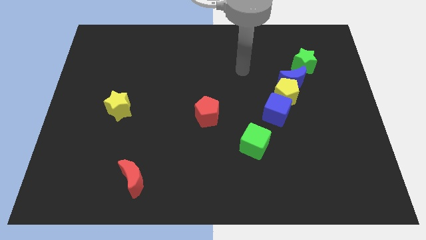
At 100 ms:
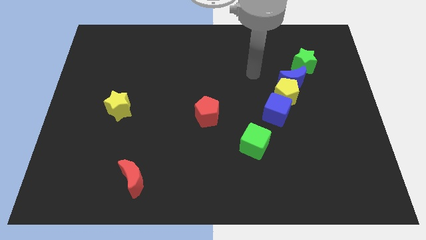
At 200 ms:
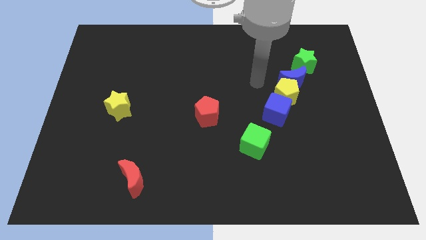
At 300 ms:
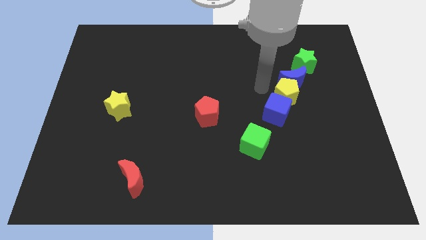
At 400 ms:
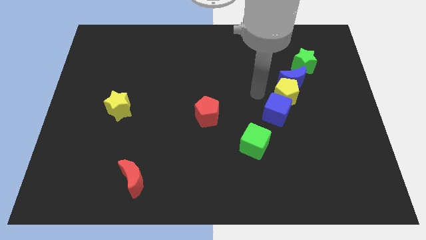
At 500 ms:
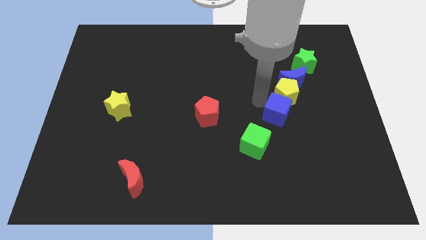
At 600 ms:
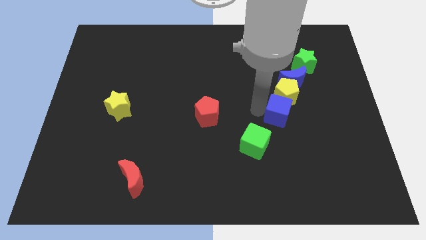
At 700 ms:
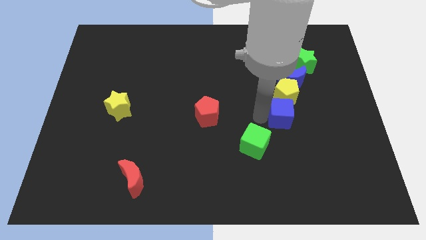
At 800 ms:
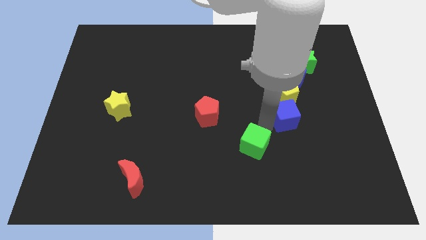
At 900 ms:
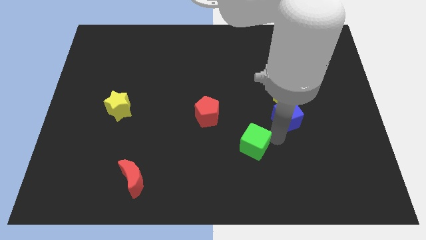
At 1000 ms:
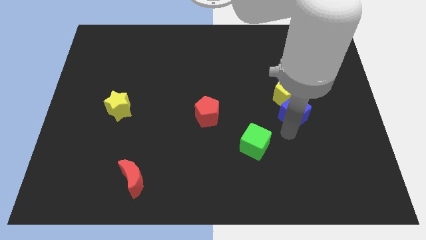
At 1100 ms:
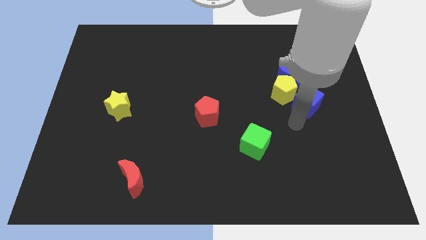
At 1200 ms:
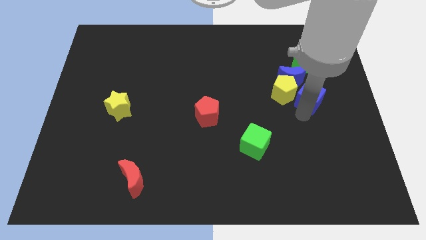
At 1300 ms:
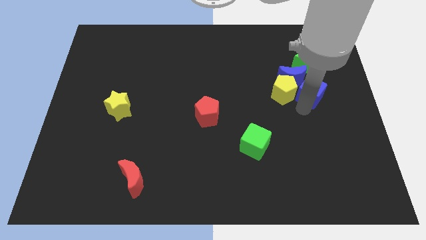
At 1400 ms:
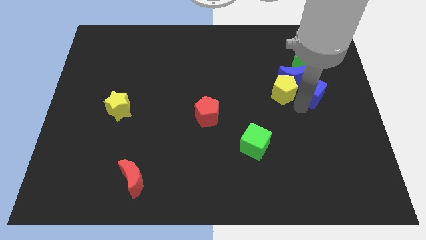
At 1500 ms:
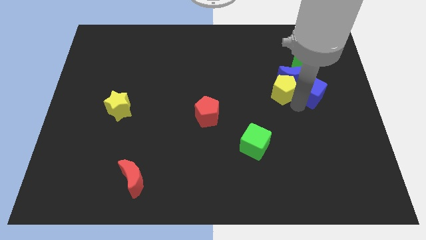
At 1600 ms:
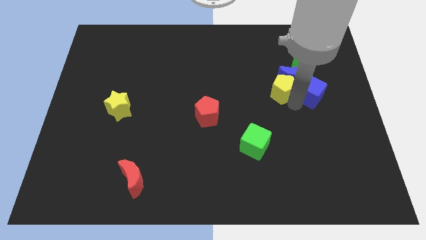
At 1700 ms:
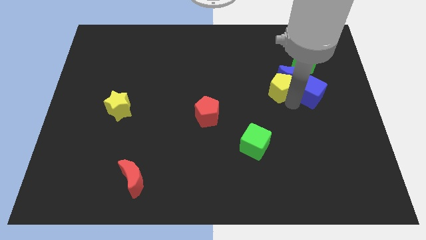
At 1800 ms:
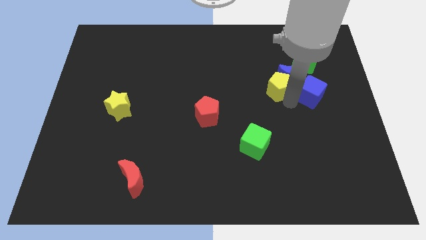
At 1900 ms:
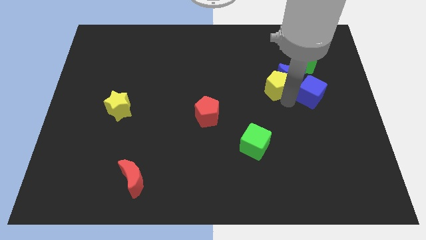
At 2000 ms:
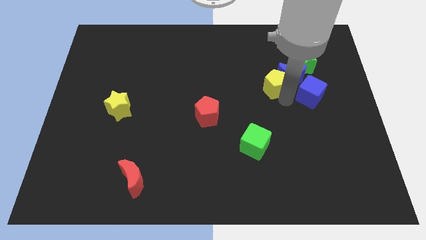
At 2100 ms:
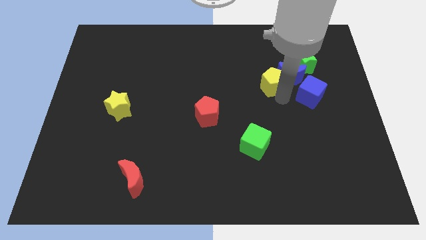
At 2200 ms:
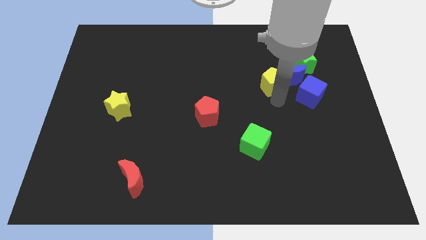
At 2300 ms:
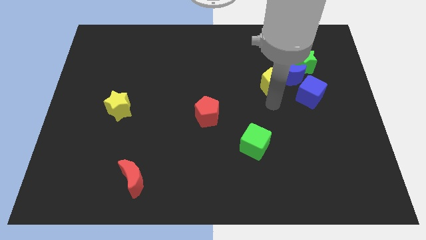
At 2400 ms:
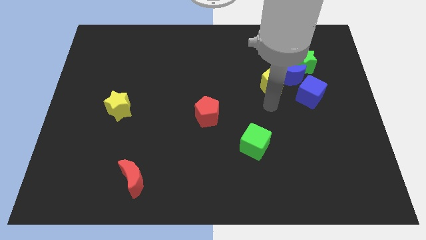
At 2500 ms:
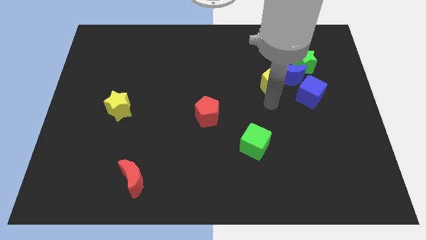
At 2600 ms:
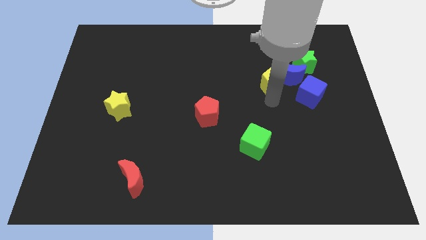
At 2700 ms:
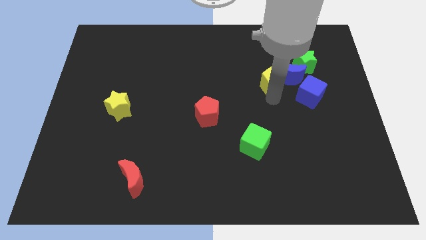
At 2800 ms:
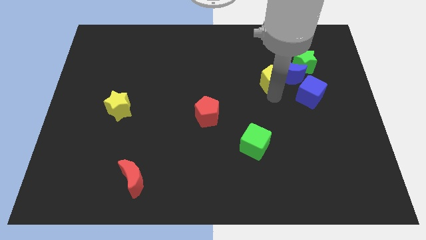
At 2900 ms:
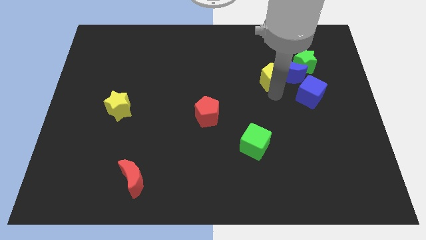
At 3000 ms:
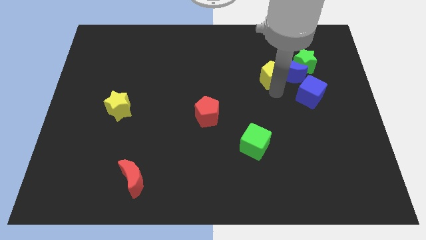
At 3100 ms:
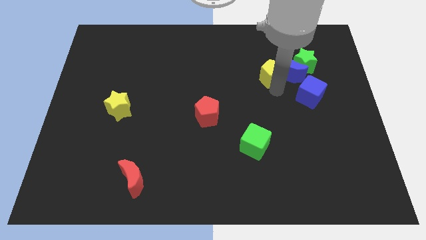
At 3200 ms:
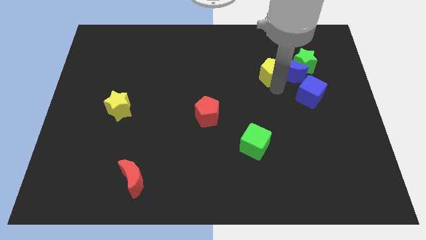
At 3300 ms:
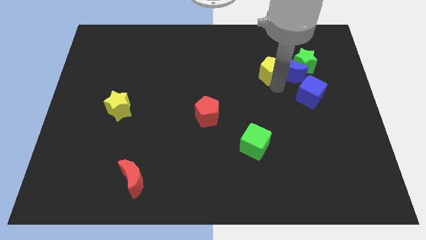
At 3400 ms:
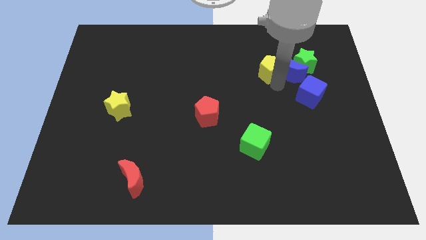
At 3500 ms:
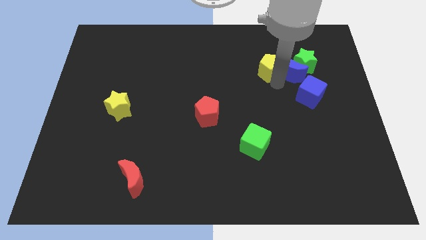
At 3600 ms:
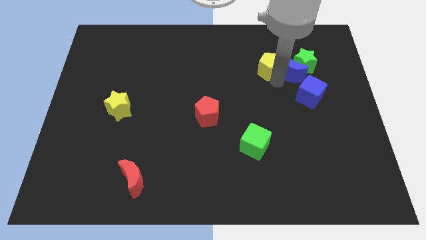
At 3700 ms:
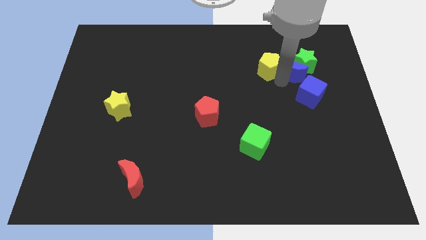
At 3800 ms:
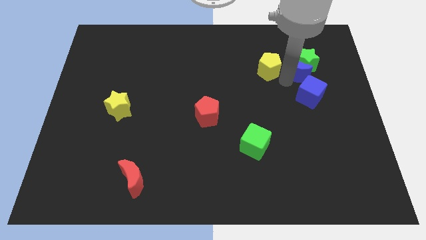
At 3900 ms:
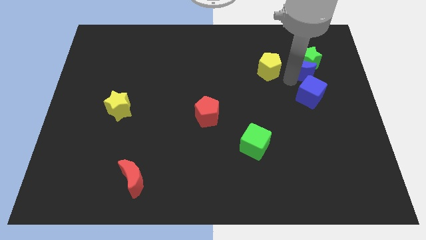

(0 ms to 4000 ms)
move the yellow pentagon away from the blue moon and blue cube

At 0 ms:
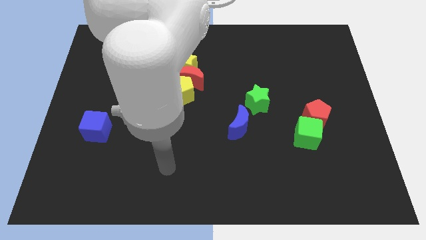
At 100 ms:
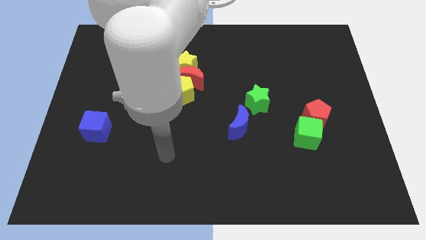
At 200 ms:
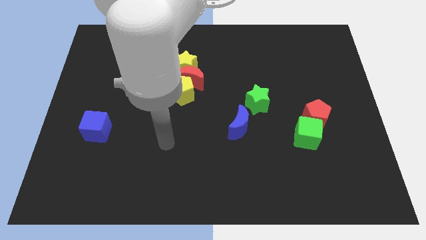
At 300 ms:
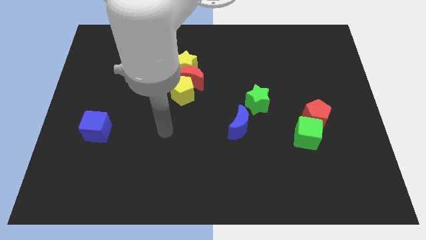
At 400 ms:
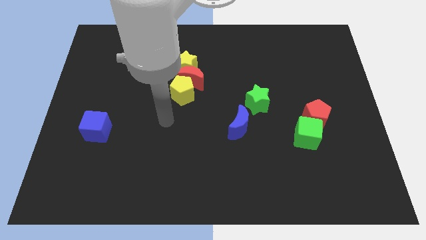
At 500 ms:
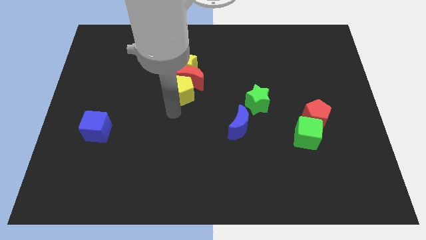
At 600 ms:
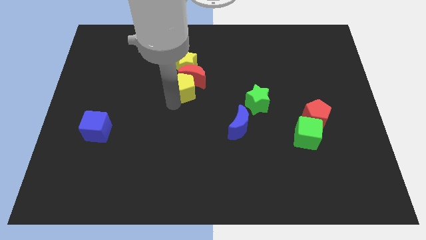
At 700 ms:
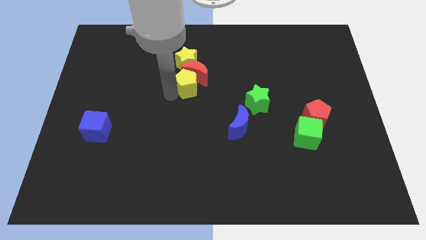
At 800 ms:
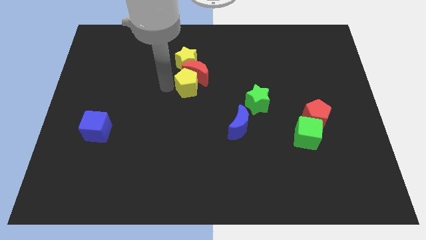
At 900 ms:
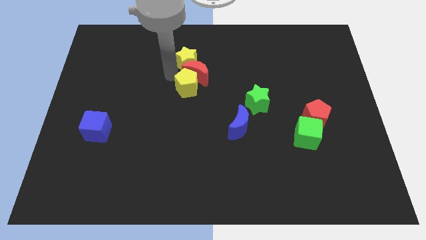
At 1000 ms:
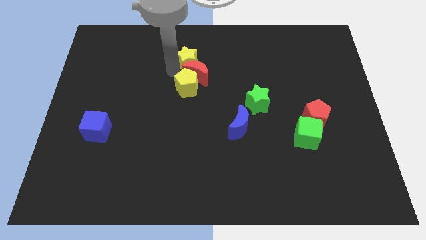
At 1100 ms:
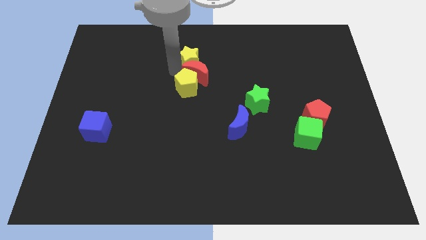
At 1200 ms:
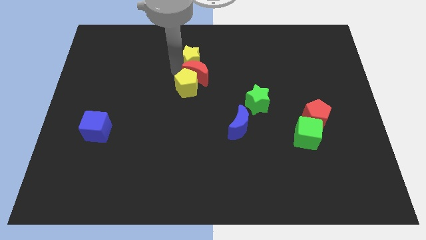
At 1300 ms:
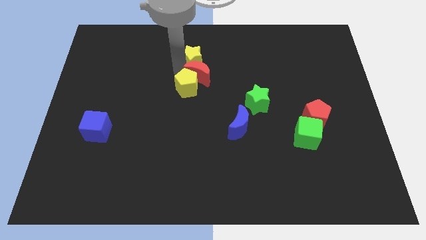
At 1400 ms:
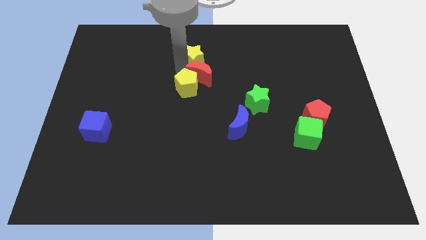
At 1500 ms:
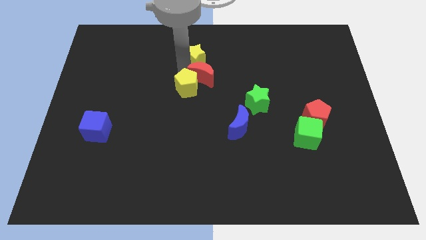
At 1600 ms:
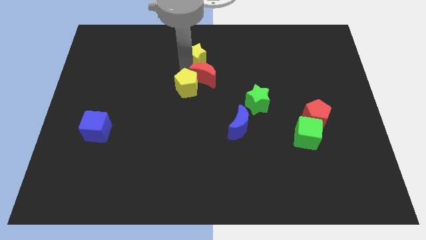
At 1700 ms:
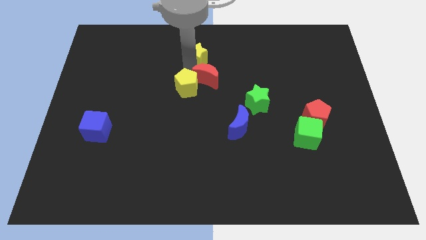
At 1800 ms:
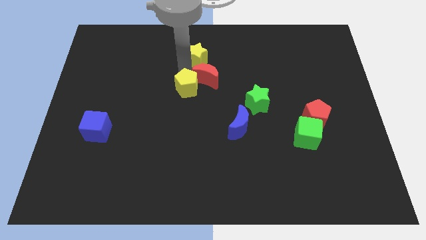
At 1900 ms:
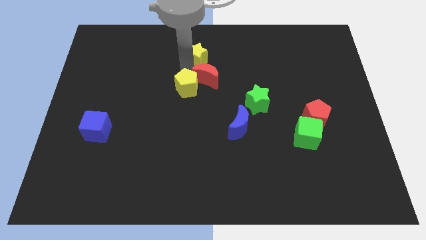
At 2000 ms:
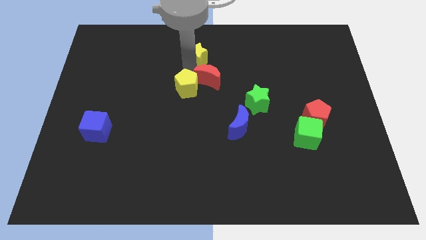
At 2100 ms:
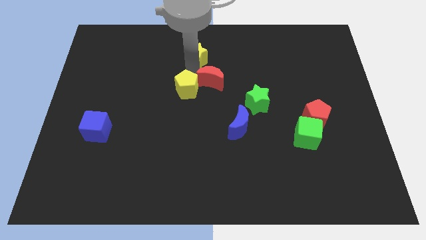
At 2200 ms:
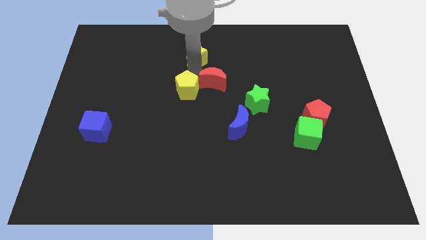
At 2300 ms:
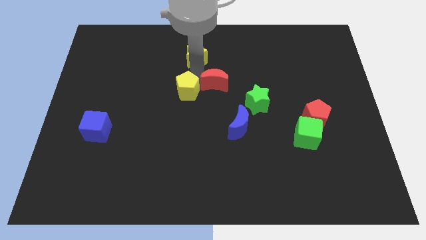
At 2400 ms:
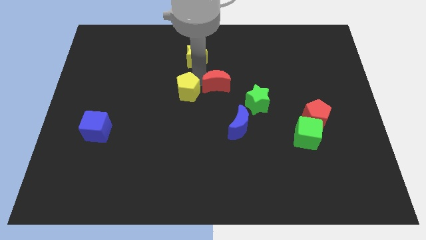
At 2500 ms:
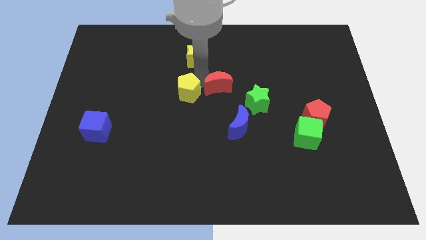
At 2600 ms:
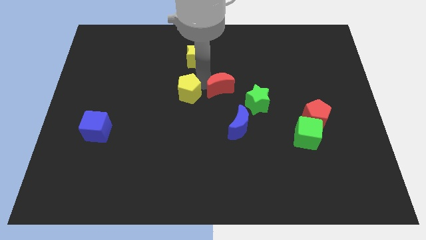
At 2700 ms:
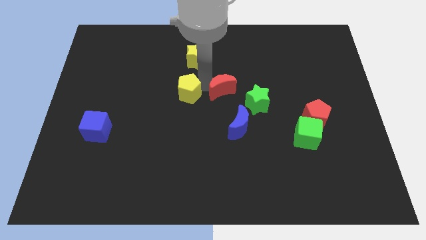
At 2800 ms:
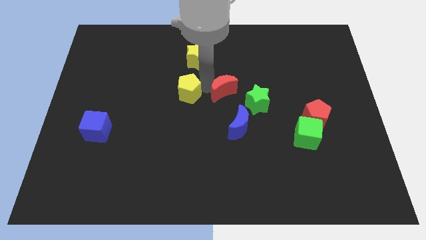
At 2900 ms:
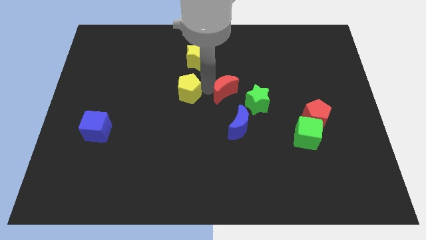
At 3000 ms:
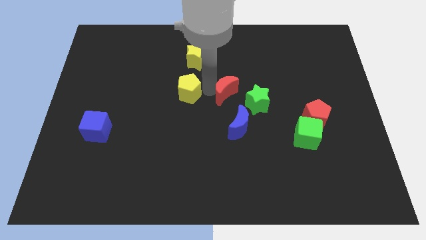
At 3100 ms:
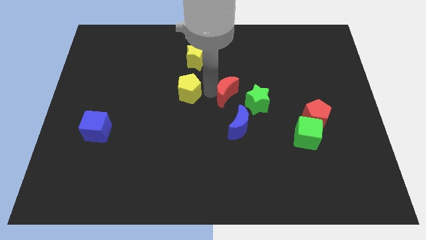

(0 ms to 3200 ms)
pull the red moon apart from the yellow star and yellow pentagon

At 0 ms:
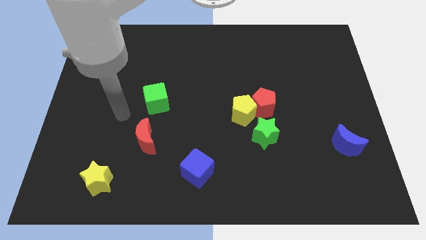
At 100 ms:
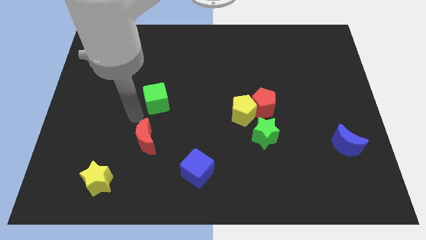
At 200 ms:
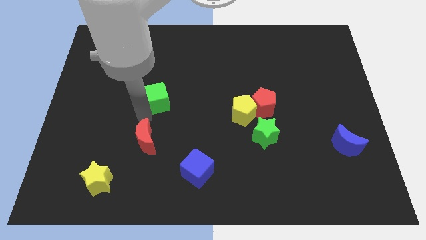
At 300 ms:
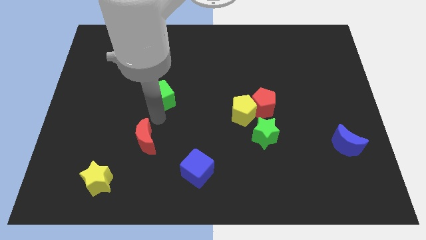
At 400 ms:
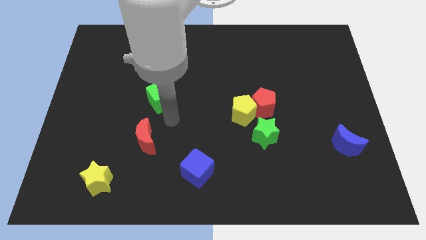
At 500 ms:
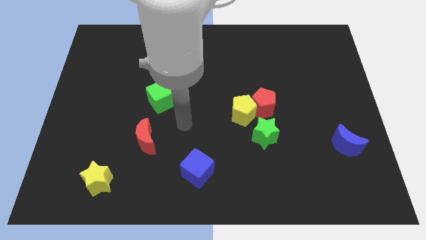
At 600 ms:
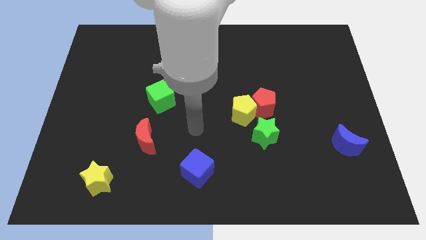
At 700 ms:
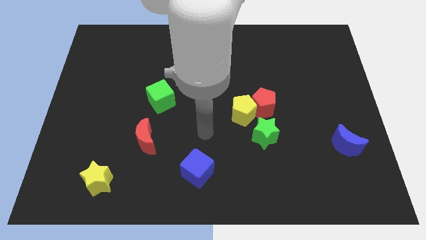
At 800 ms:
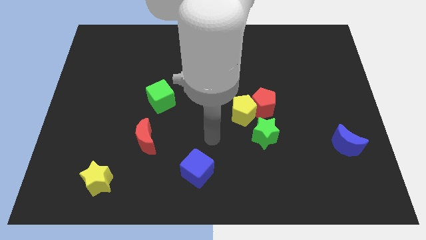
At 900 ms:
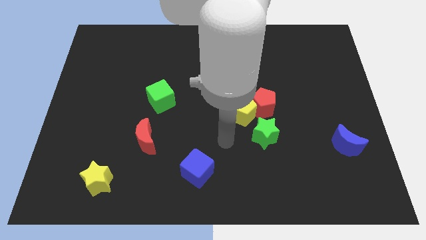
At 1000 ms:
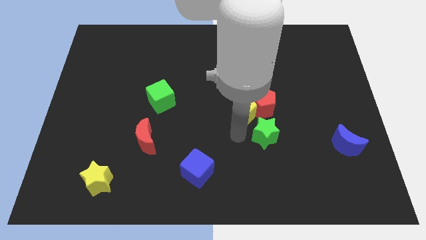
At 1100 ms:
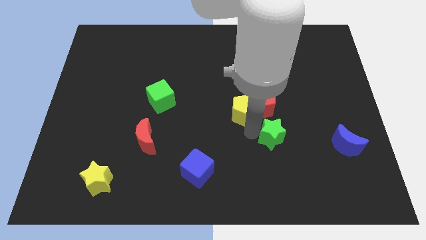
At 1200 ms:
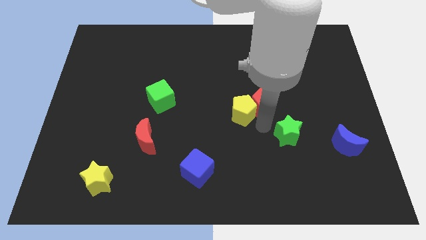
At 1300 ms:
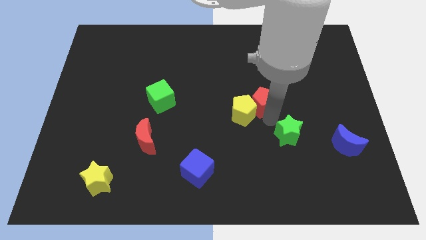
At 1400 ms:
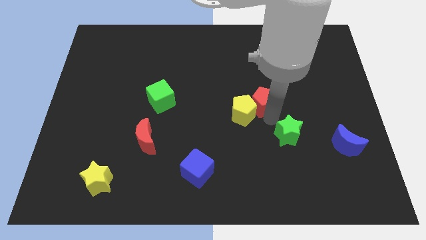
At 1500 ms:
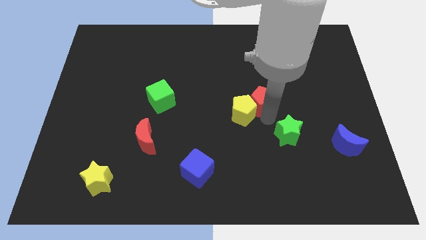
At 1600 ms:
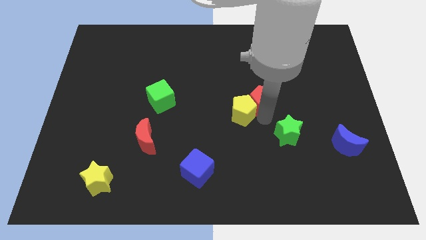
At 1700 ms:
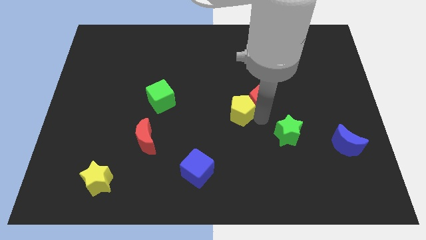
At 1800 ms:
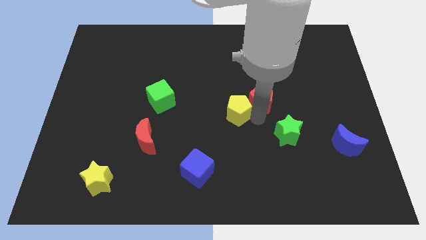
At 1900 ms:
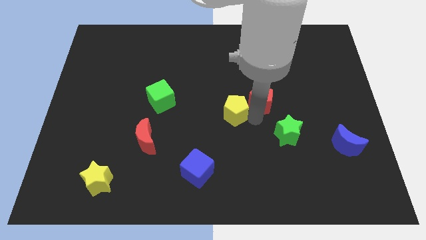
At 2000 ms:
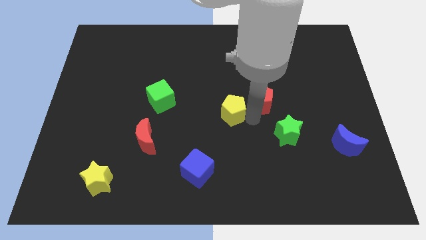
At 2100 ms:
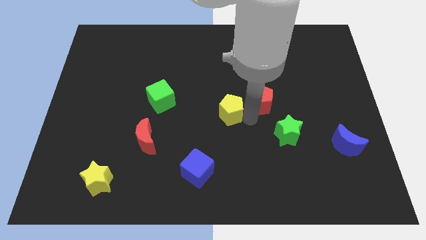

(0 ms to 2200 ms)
move the yellow pentagon away from the red pentagon and green star
